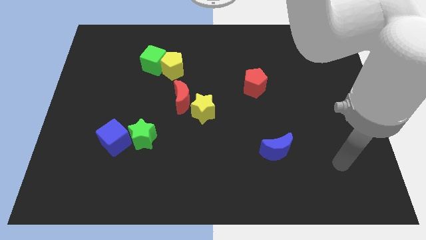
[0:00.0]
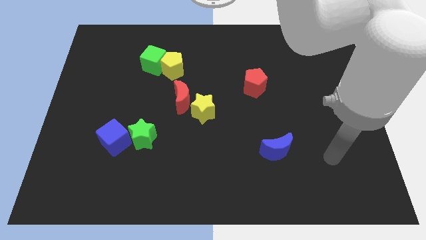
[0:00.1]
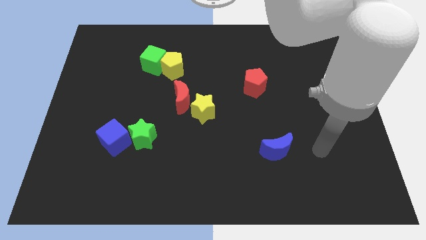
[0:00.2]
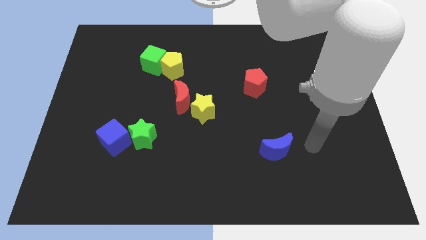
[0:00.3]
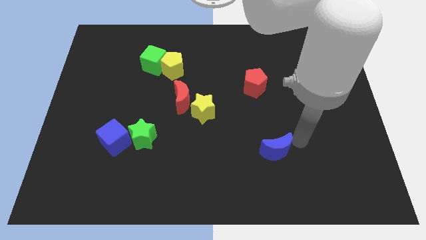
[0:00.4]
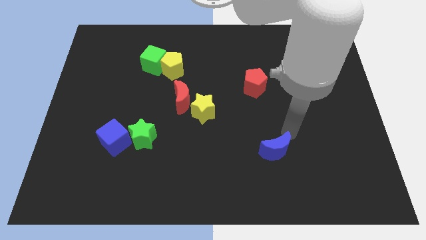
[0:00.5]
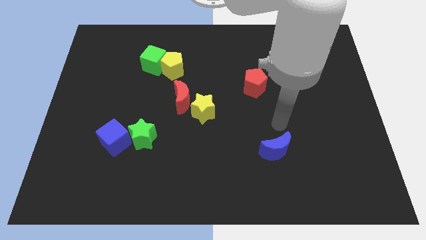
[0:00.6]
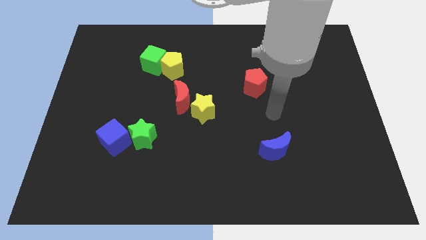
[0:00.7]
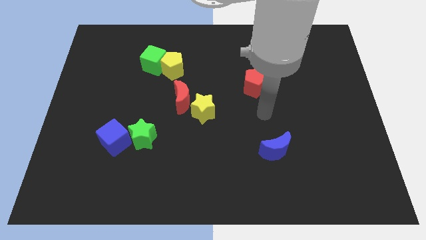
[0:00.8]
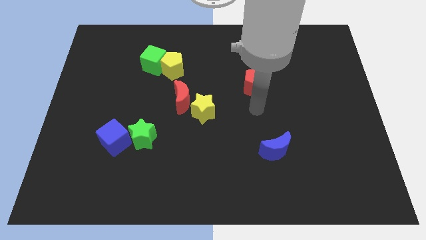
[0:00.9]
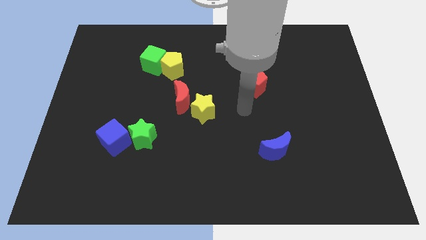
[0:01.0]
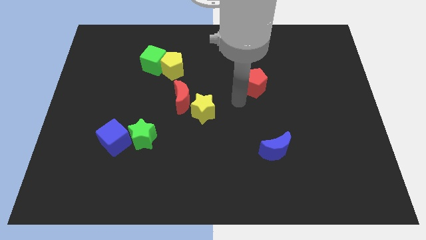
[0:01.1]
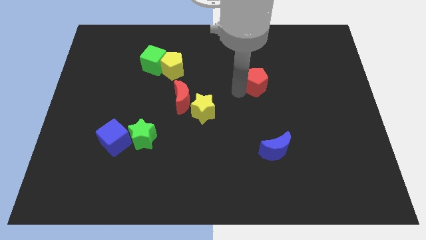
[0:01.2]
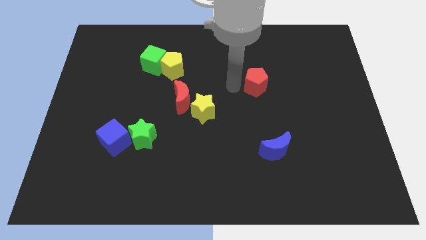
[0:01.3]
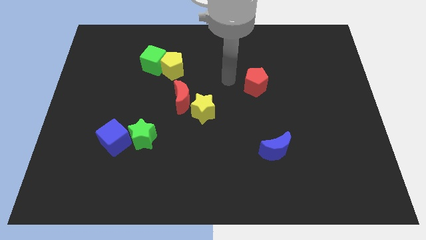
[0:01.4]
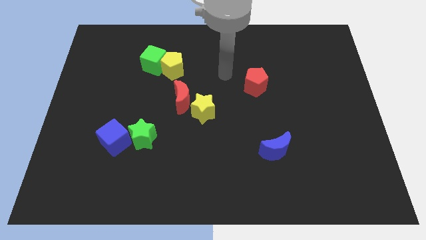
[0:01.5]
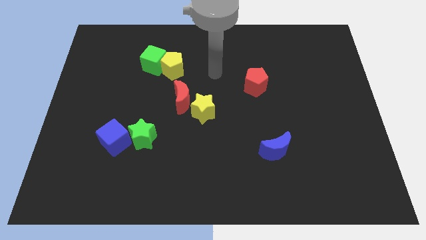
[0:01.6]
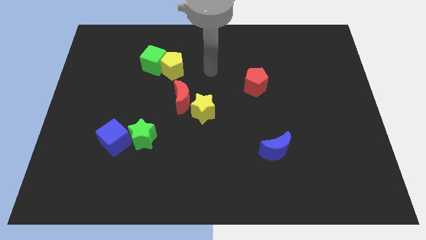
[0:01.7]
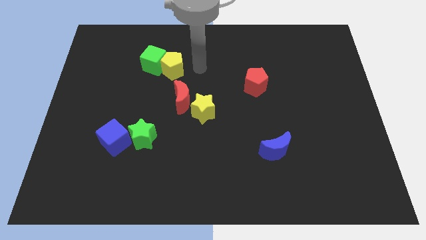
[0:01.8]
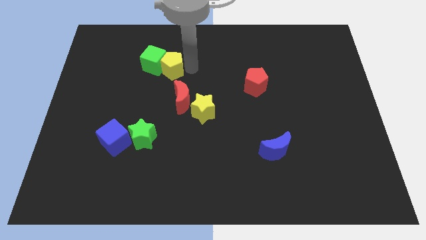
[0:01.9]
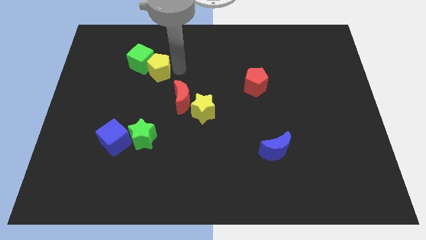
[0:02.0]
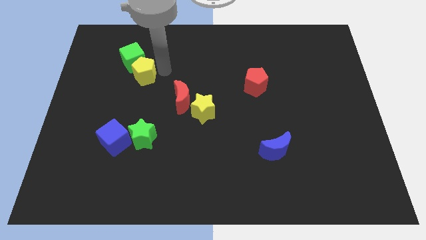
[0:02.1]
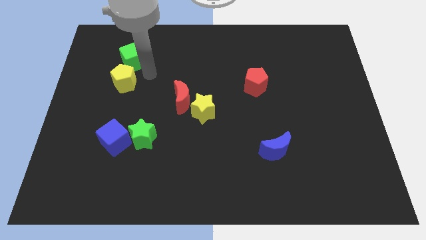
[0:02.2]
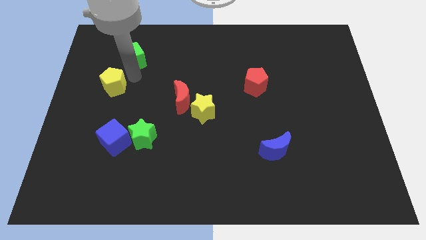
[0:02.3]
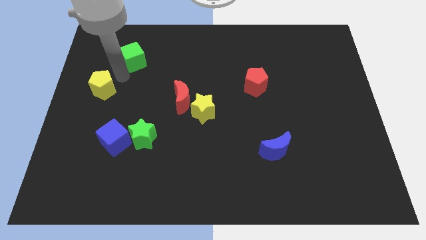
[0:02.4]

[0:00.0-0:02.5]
separate the green cube from the yellow pentagon

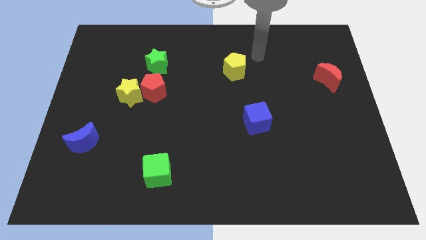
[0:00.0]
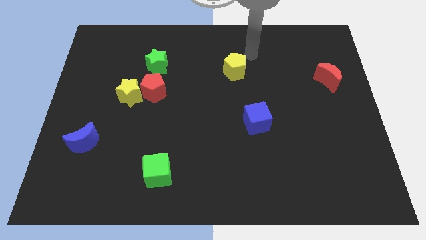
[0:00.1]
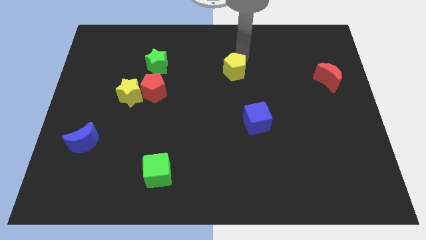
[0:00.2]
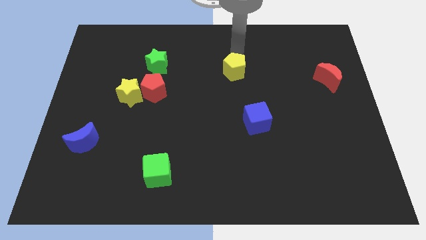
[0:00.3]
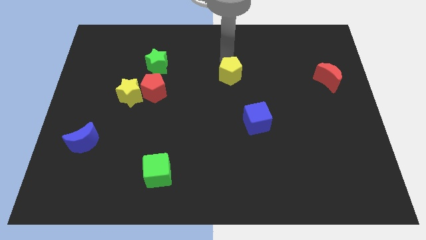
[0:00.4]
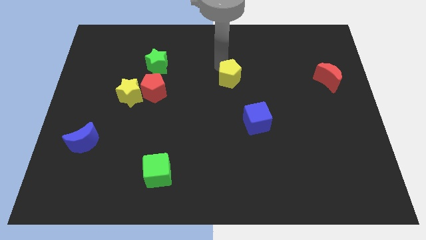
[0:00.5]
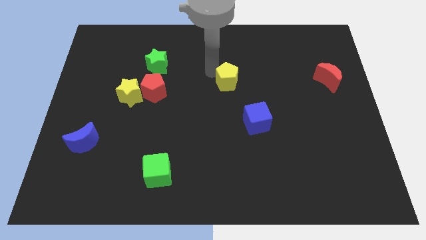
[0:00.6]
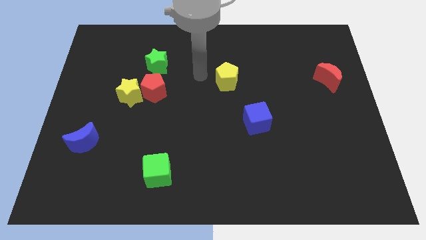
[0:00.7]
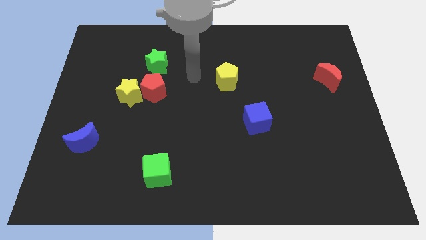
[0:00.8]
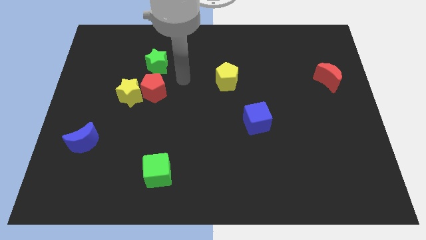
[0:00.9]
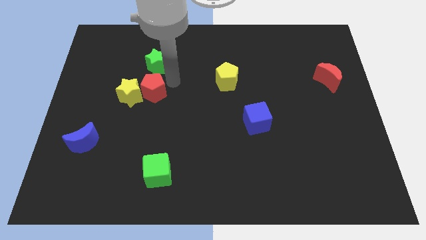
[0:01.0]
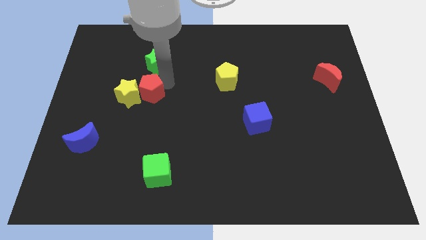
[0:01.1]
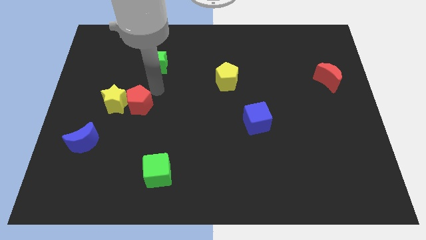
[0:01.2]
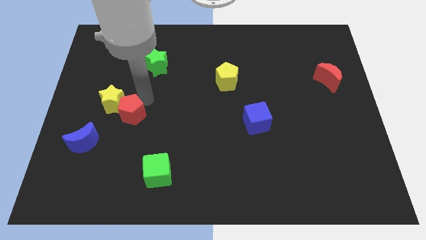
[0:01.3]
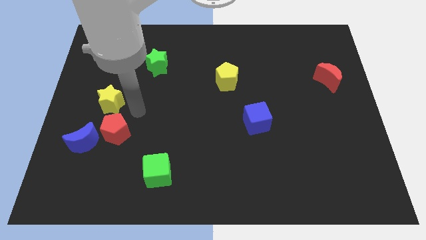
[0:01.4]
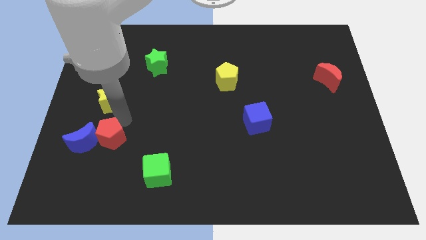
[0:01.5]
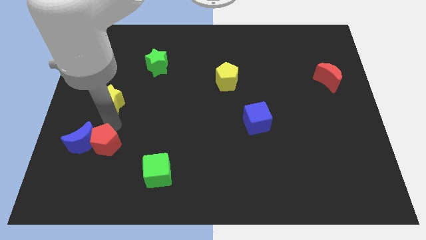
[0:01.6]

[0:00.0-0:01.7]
separate the yellow star from the red pentagon

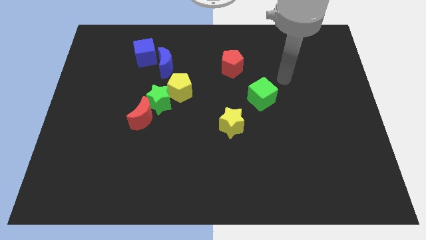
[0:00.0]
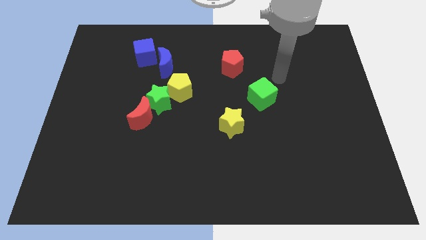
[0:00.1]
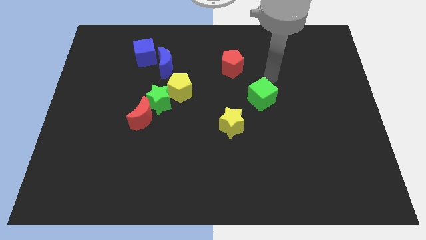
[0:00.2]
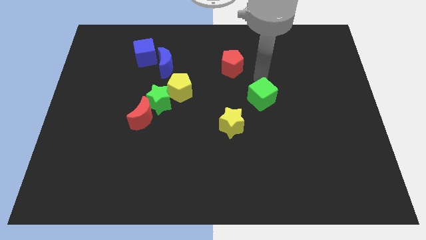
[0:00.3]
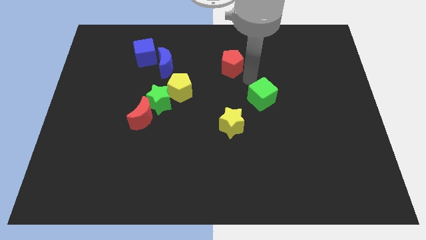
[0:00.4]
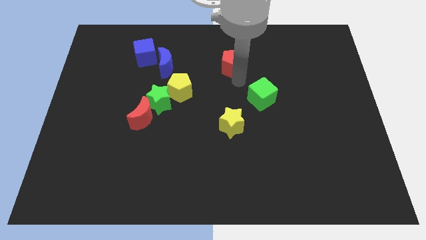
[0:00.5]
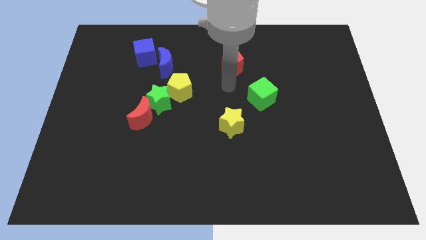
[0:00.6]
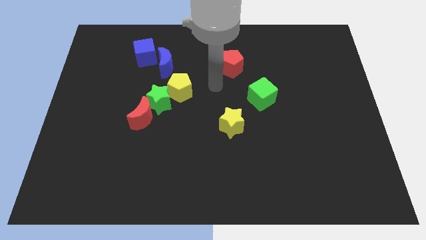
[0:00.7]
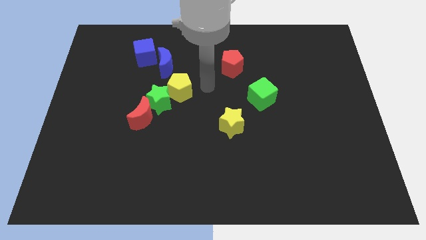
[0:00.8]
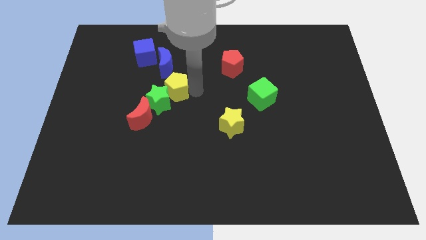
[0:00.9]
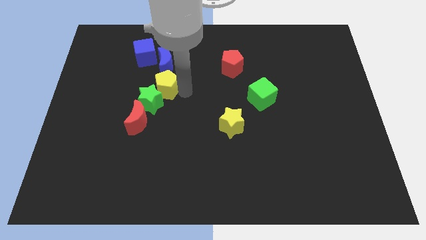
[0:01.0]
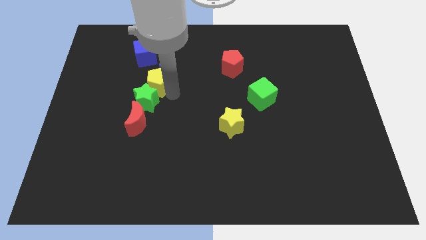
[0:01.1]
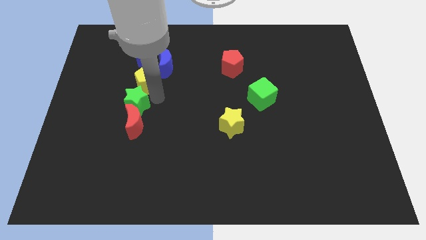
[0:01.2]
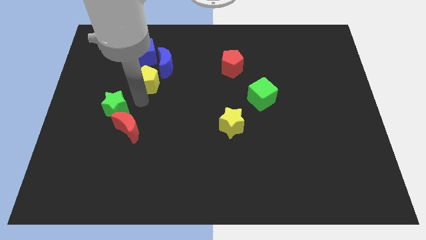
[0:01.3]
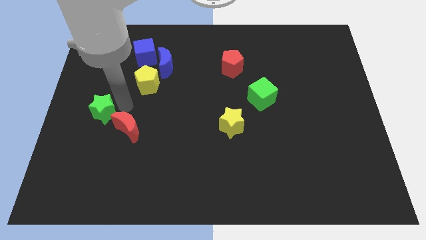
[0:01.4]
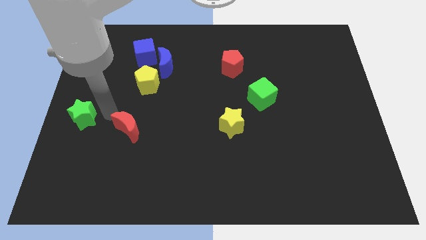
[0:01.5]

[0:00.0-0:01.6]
separate the red moon from the green star

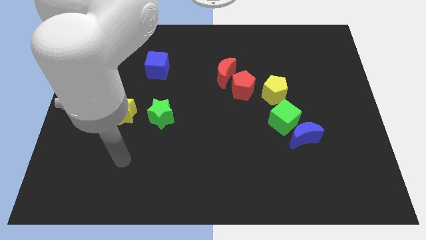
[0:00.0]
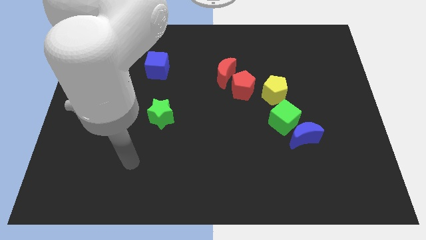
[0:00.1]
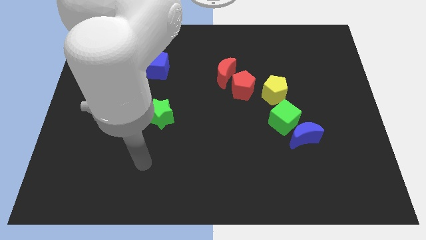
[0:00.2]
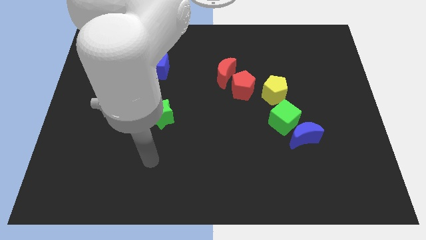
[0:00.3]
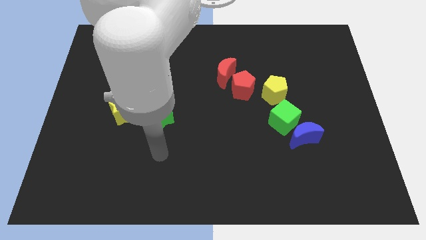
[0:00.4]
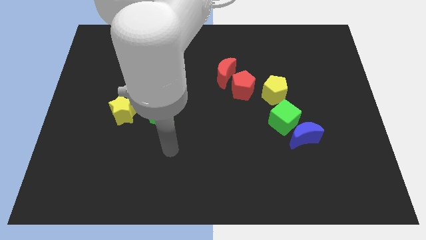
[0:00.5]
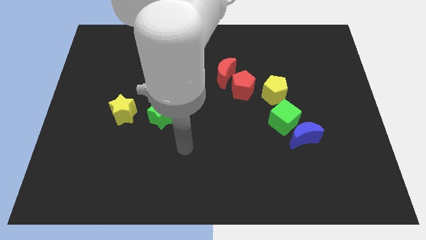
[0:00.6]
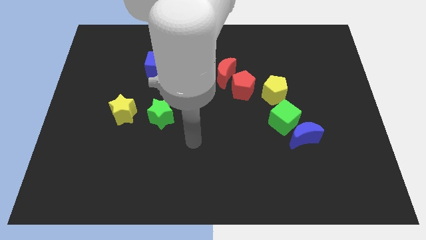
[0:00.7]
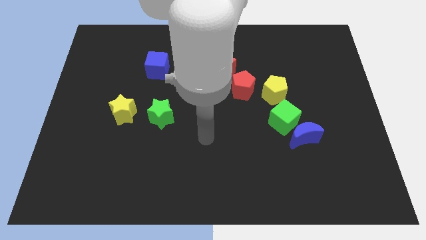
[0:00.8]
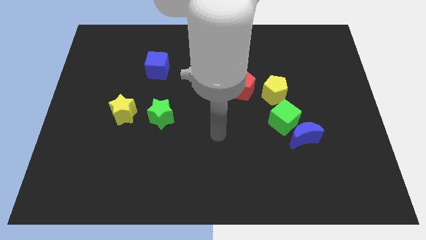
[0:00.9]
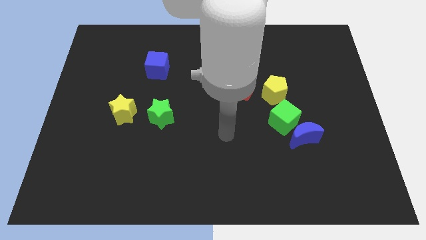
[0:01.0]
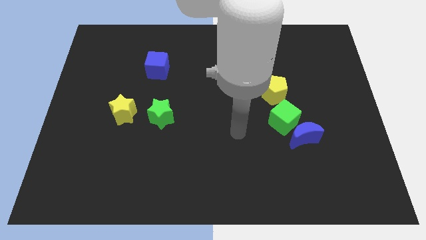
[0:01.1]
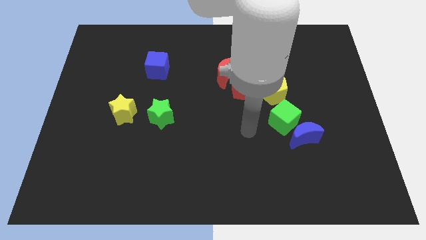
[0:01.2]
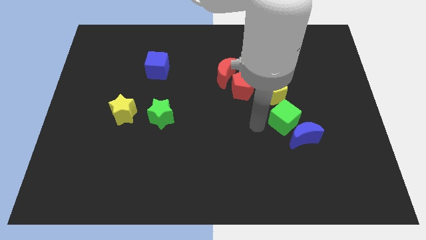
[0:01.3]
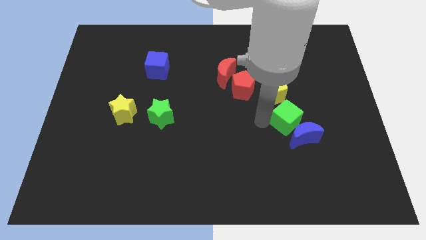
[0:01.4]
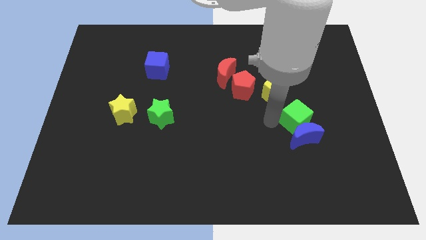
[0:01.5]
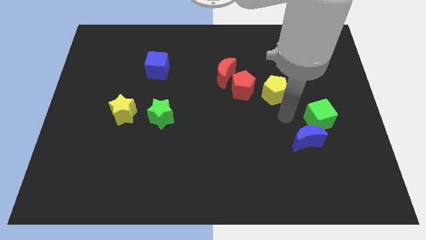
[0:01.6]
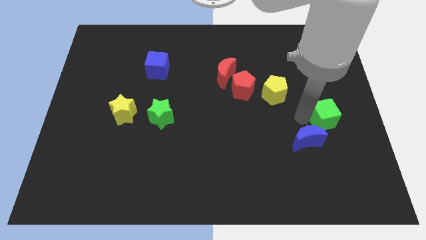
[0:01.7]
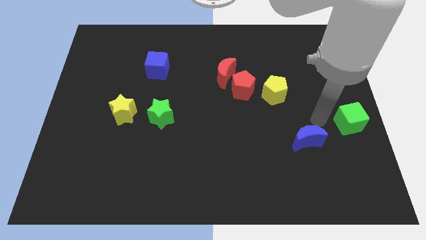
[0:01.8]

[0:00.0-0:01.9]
pull the blue moon apart from the green cube

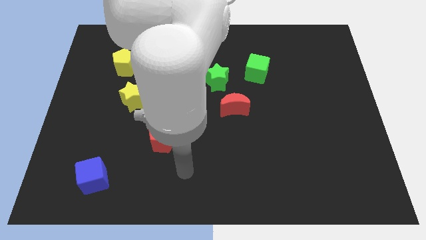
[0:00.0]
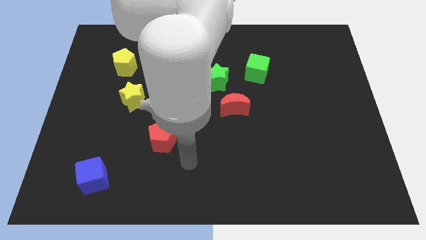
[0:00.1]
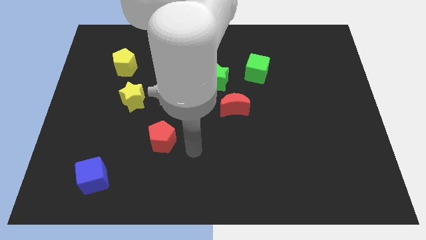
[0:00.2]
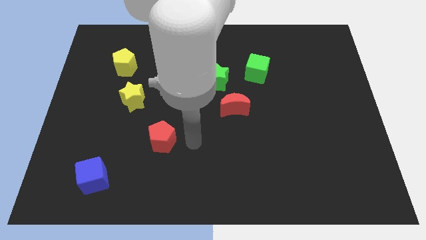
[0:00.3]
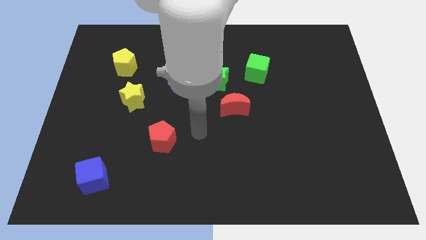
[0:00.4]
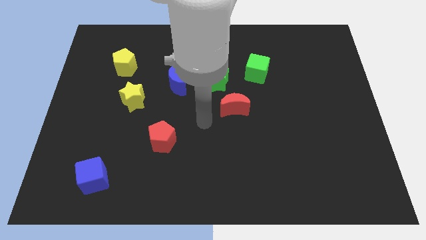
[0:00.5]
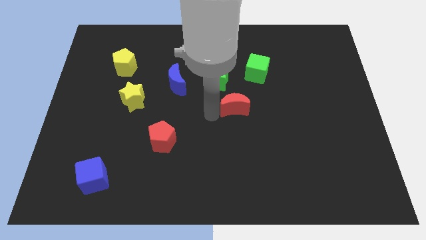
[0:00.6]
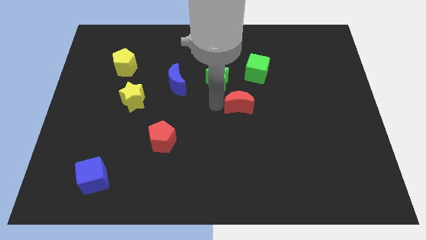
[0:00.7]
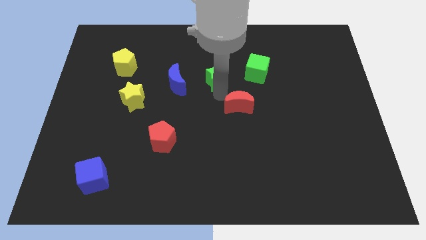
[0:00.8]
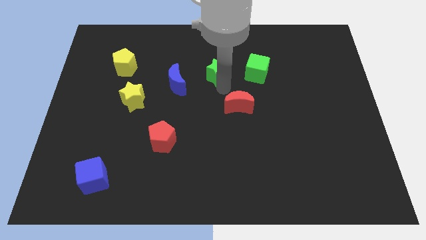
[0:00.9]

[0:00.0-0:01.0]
pull the red moon apart from the green star

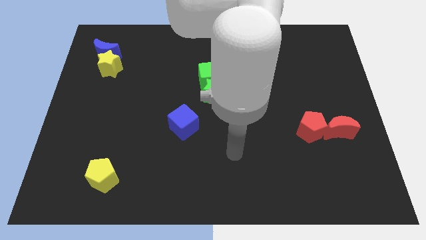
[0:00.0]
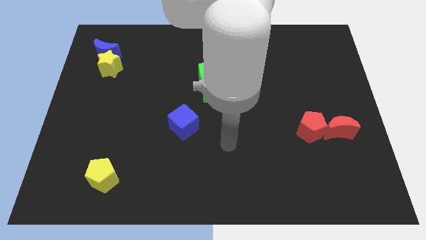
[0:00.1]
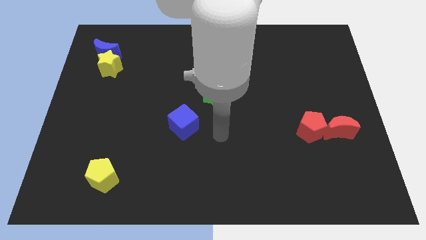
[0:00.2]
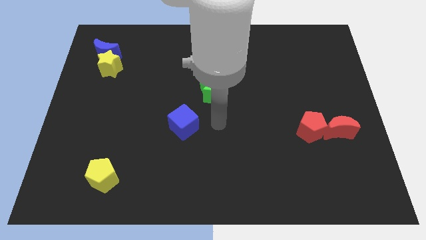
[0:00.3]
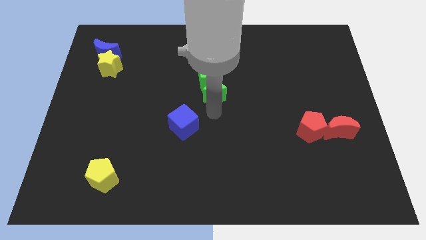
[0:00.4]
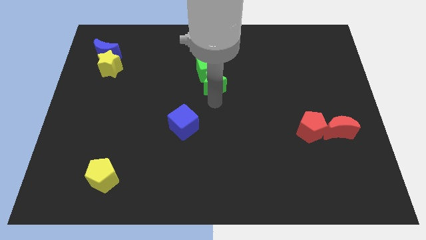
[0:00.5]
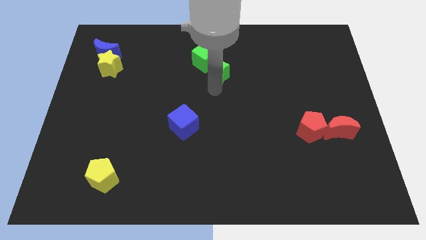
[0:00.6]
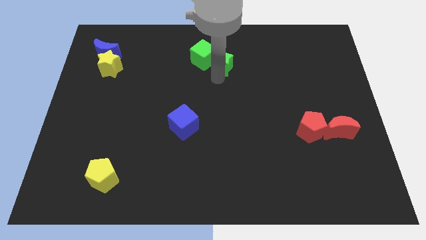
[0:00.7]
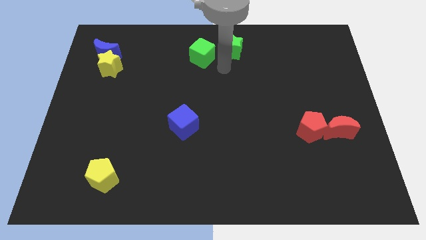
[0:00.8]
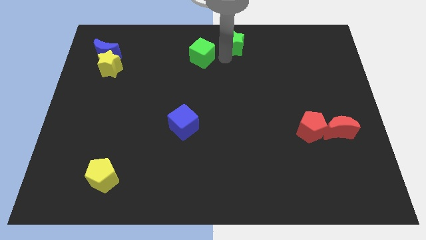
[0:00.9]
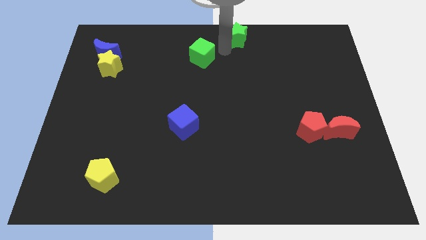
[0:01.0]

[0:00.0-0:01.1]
pull the green cube apart from the green star
